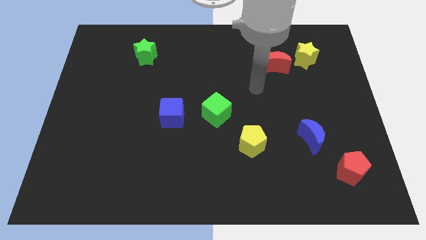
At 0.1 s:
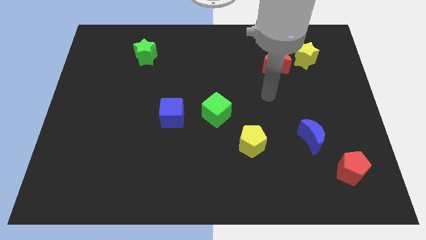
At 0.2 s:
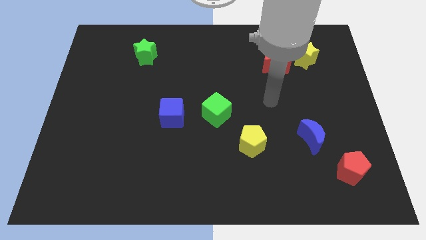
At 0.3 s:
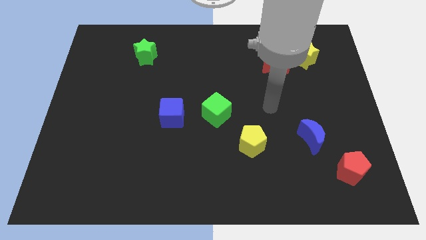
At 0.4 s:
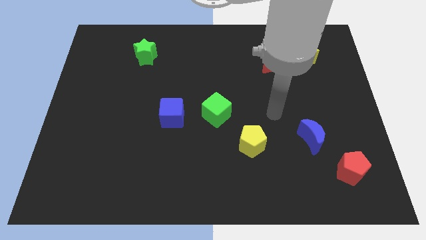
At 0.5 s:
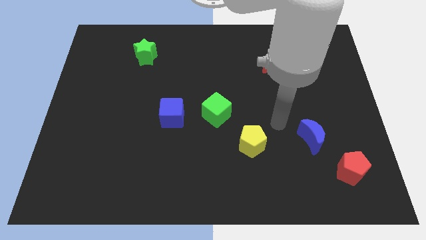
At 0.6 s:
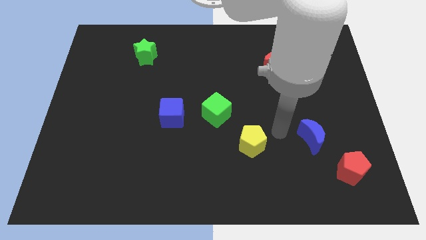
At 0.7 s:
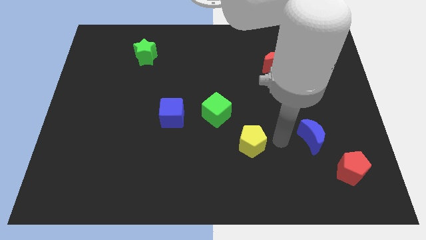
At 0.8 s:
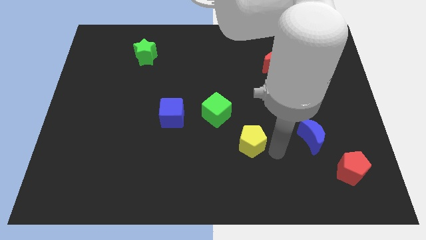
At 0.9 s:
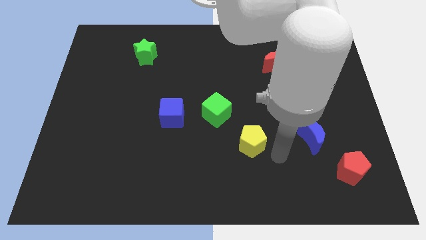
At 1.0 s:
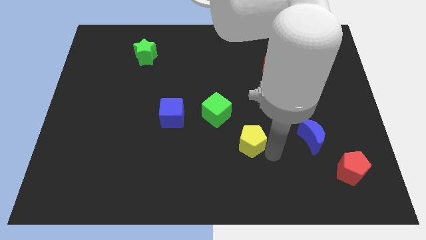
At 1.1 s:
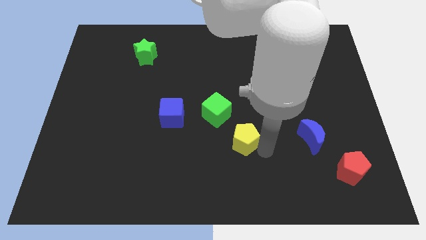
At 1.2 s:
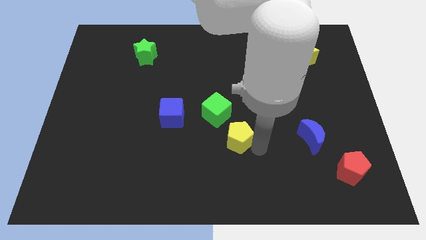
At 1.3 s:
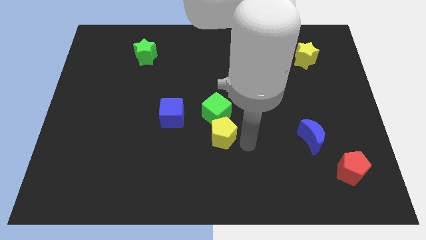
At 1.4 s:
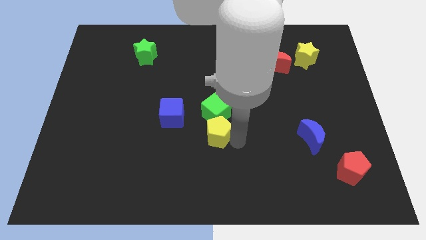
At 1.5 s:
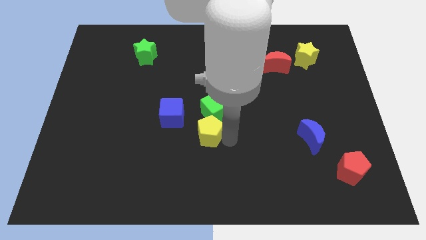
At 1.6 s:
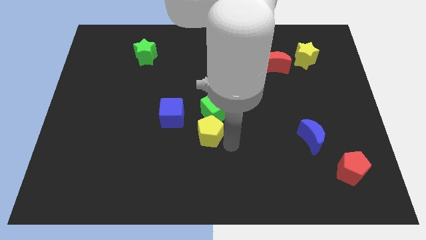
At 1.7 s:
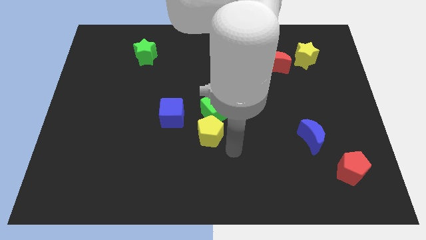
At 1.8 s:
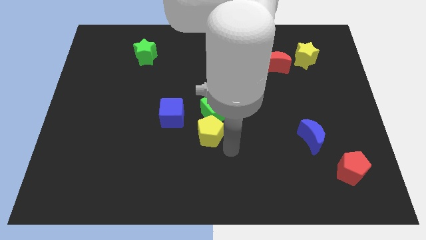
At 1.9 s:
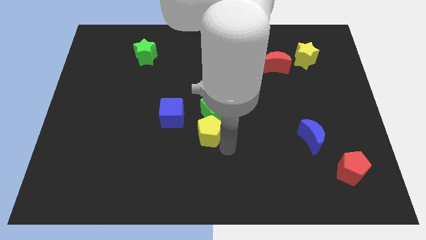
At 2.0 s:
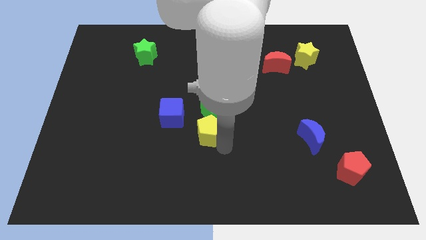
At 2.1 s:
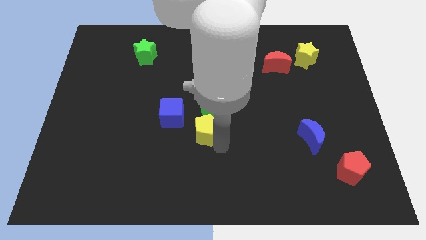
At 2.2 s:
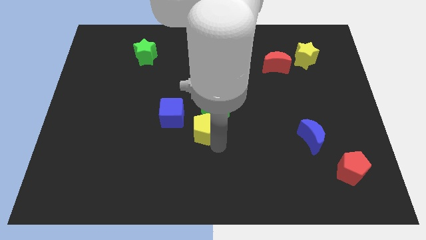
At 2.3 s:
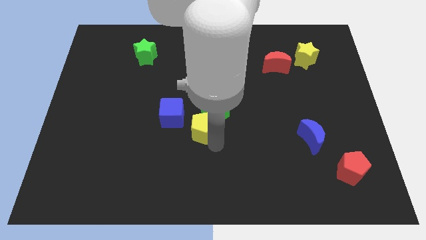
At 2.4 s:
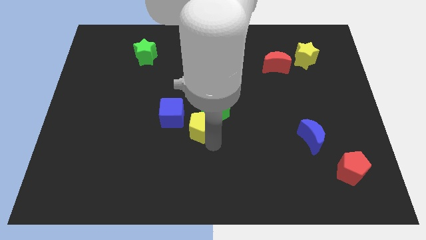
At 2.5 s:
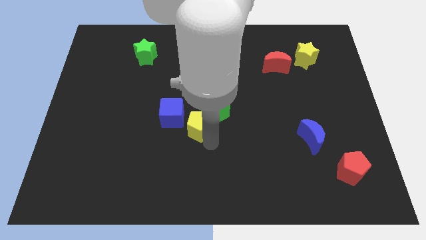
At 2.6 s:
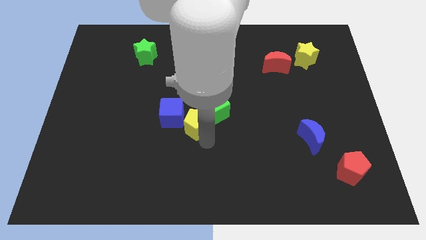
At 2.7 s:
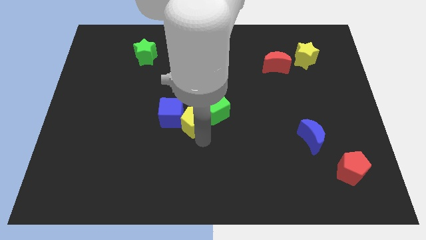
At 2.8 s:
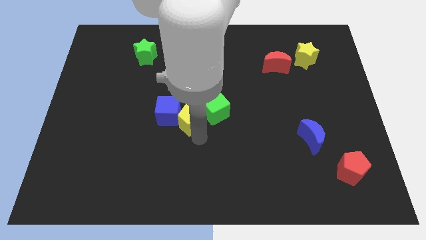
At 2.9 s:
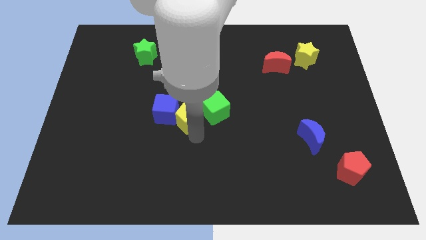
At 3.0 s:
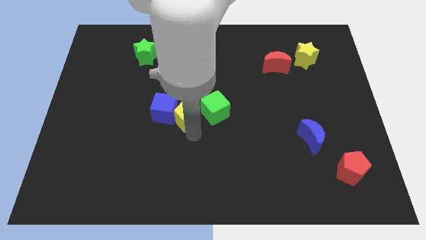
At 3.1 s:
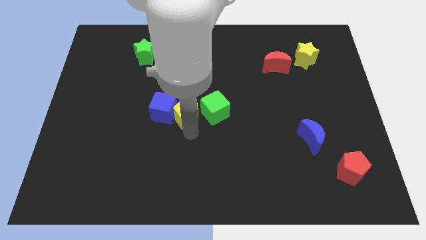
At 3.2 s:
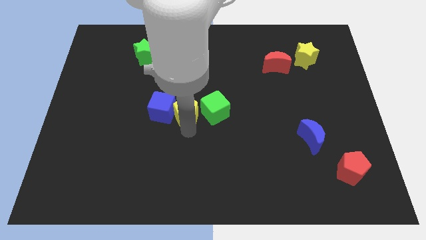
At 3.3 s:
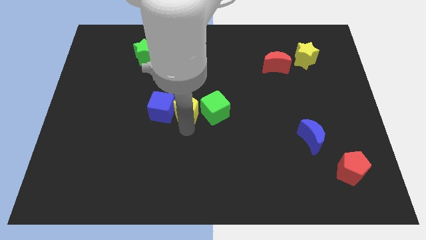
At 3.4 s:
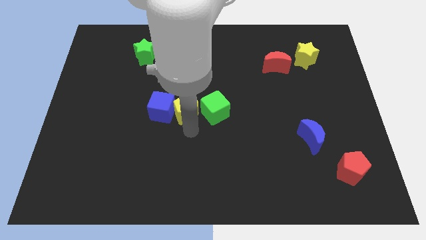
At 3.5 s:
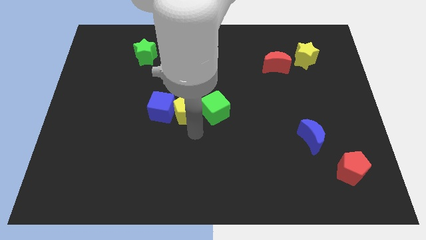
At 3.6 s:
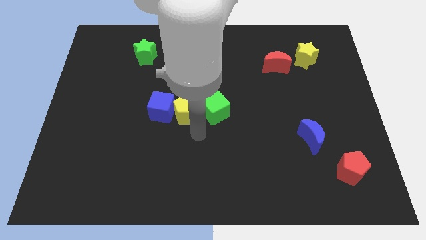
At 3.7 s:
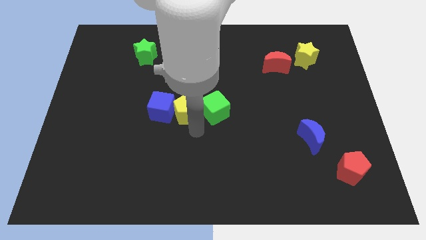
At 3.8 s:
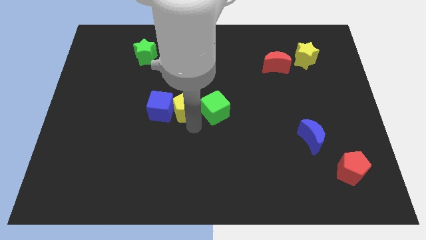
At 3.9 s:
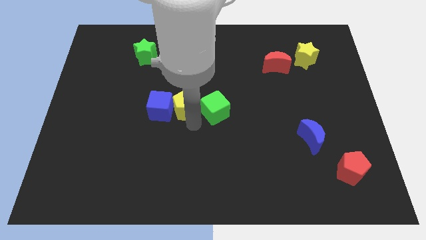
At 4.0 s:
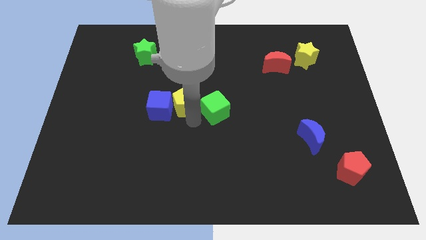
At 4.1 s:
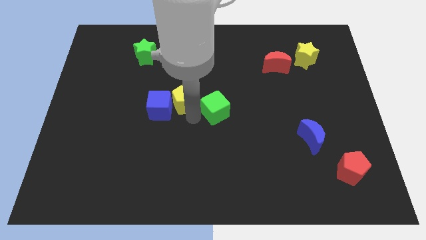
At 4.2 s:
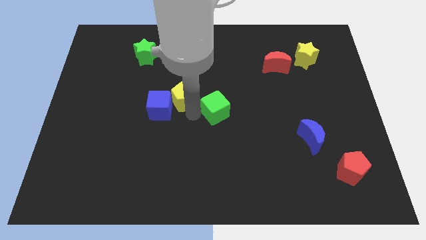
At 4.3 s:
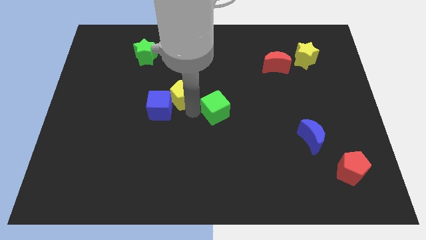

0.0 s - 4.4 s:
move the yellow pentagon upwards and to the left diagonally

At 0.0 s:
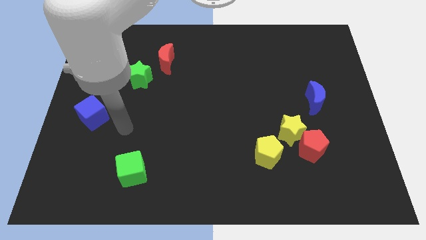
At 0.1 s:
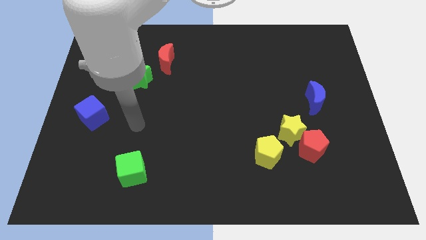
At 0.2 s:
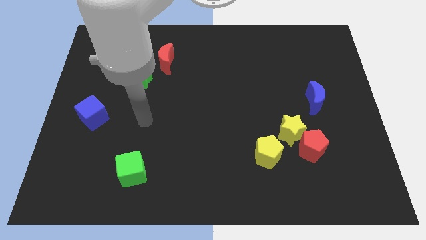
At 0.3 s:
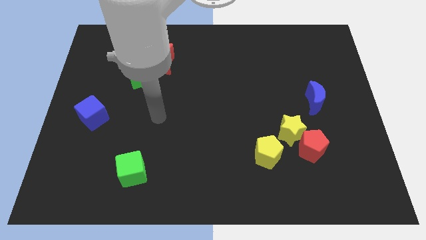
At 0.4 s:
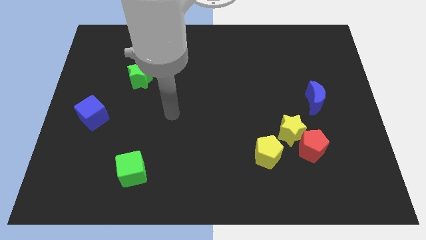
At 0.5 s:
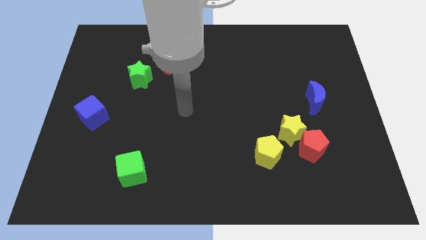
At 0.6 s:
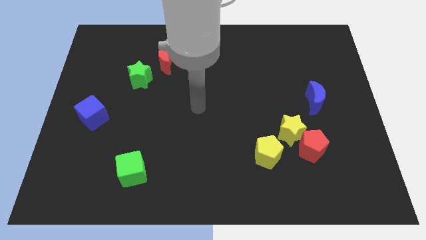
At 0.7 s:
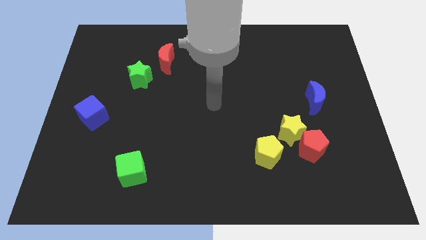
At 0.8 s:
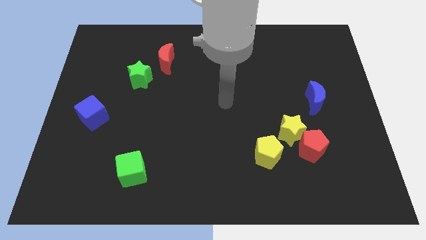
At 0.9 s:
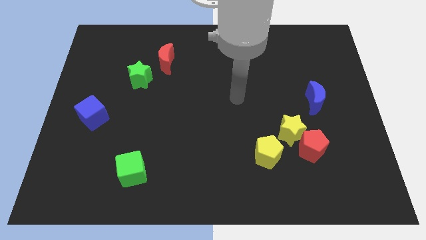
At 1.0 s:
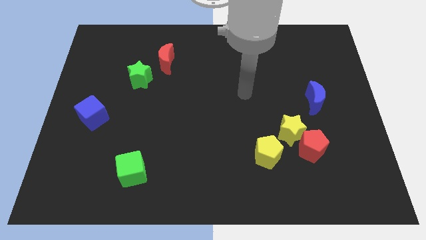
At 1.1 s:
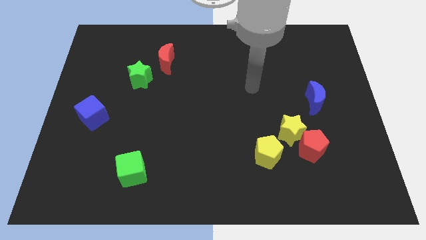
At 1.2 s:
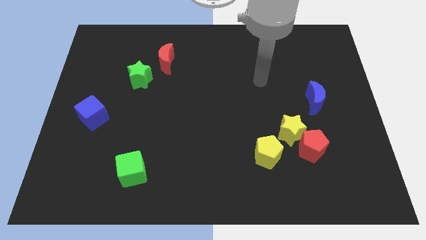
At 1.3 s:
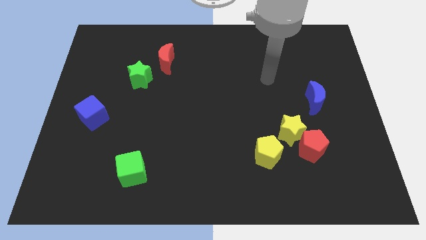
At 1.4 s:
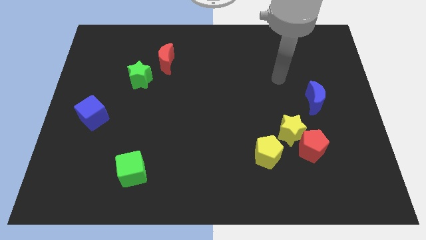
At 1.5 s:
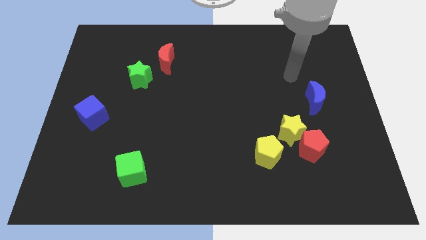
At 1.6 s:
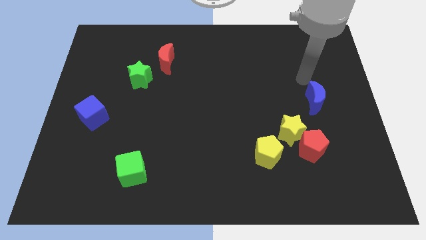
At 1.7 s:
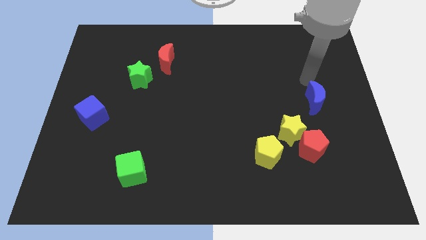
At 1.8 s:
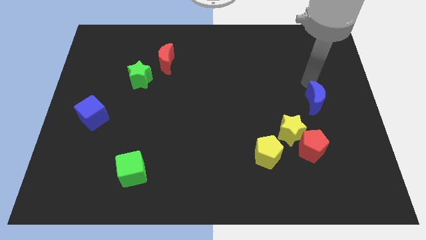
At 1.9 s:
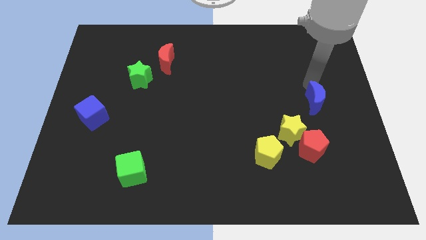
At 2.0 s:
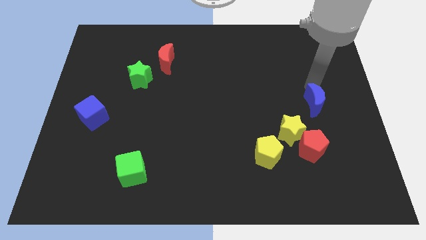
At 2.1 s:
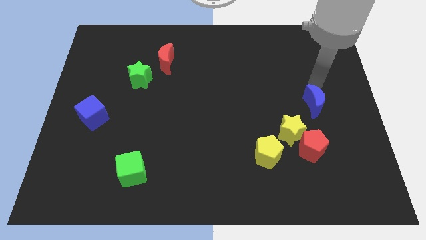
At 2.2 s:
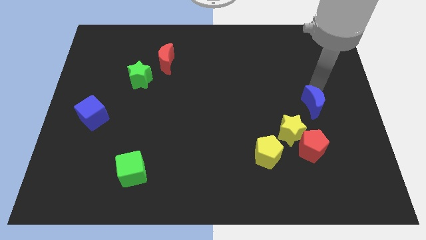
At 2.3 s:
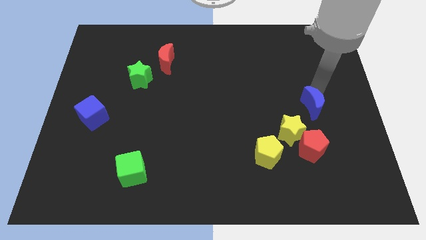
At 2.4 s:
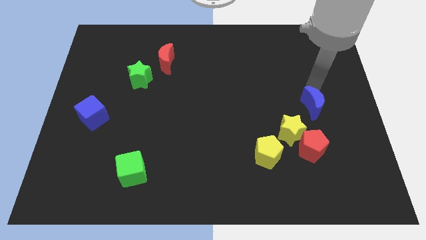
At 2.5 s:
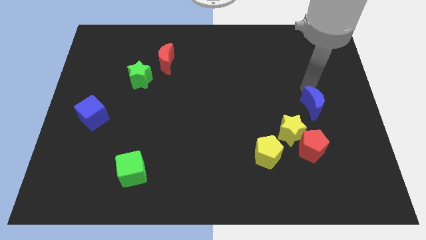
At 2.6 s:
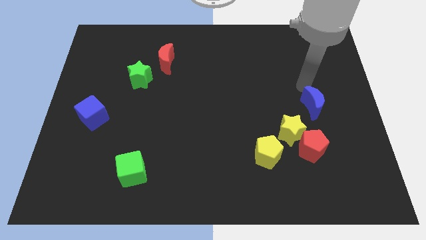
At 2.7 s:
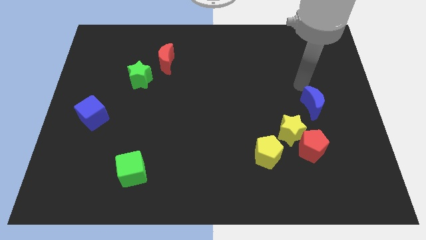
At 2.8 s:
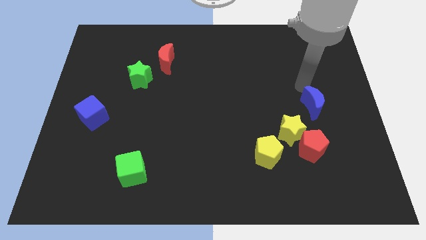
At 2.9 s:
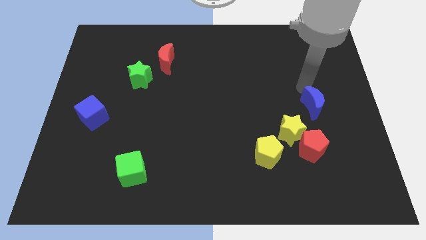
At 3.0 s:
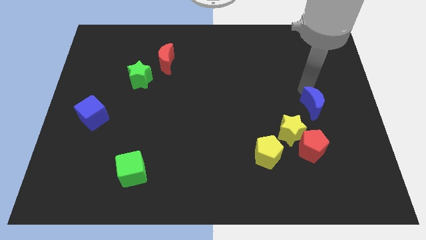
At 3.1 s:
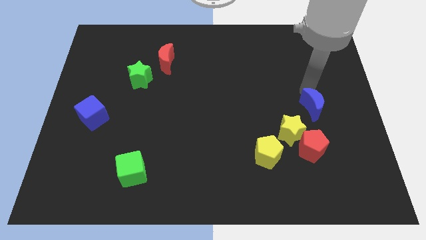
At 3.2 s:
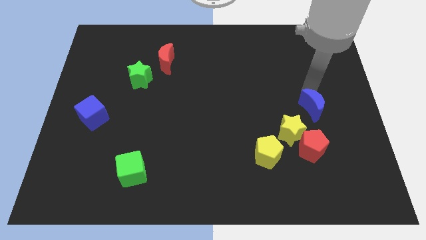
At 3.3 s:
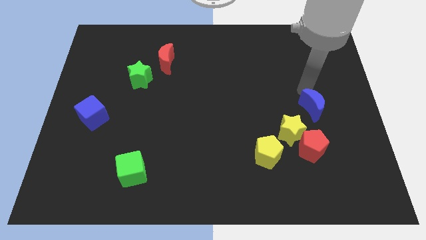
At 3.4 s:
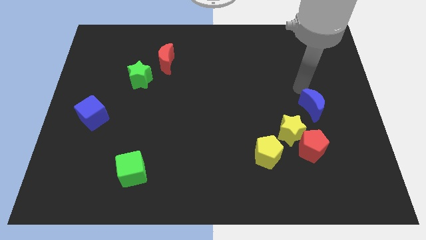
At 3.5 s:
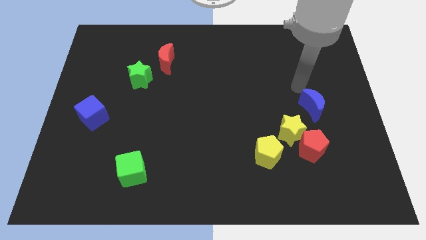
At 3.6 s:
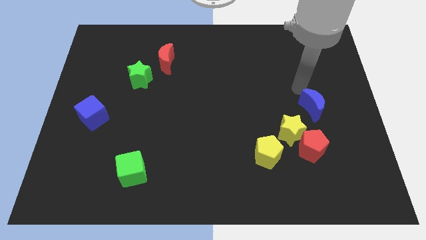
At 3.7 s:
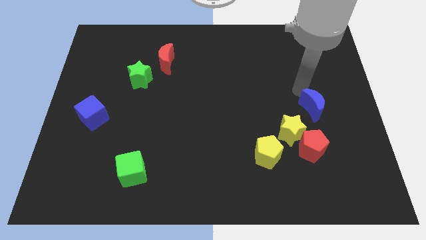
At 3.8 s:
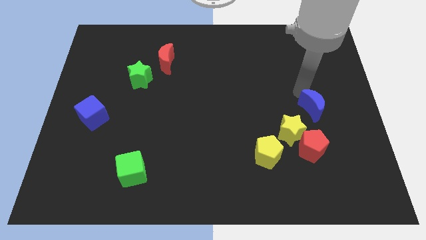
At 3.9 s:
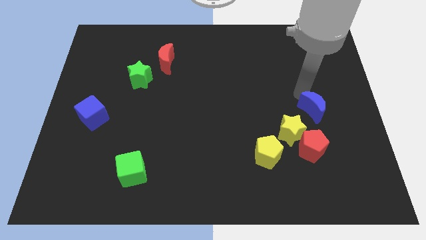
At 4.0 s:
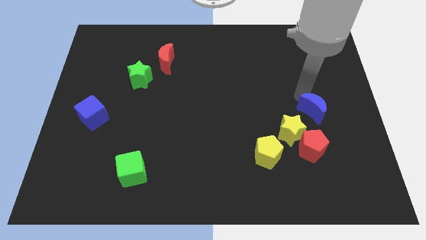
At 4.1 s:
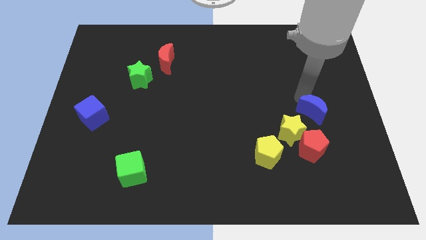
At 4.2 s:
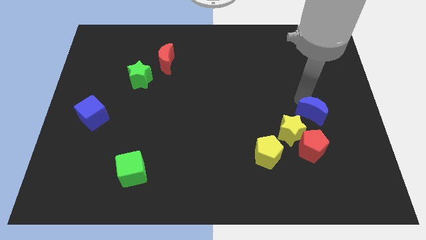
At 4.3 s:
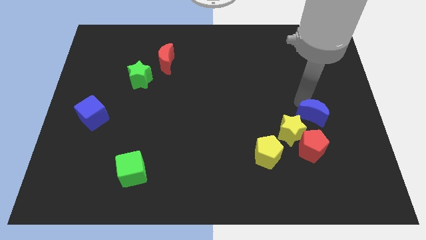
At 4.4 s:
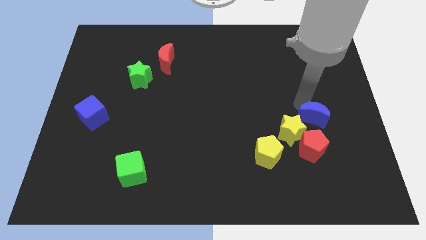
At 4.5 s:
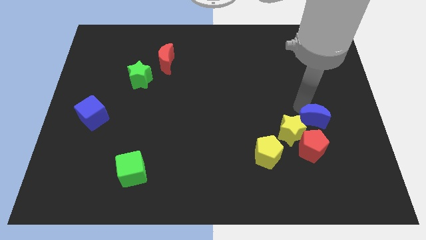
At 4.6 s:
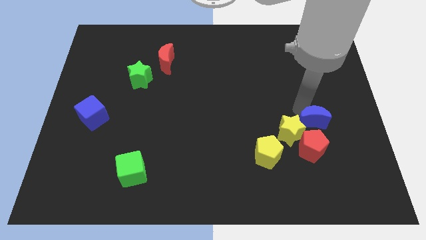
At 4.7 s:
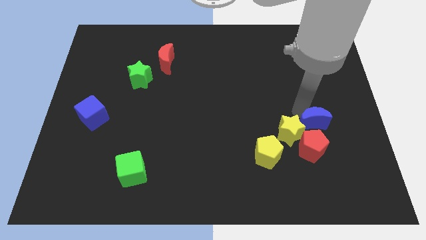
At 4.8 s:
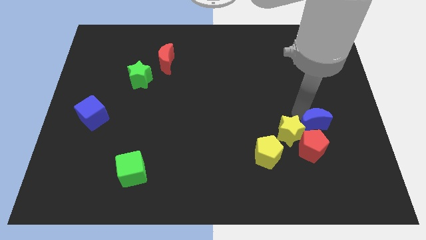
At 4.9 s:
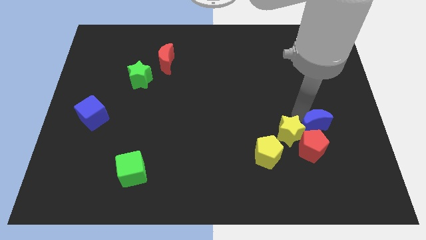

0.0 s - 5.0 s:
move the blue moon a bit down
